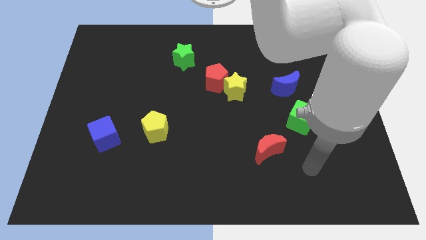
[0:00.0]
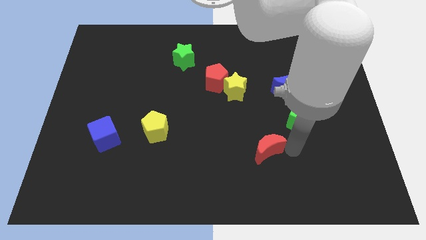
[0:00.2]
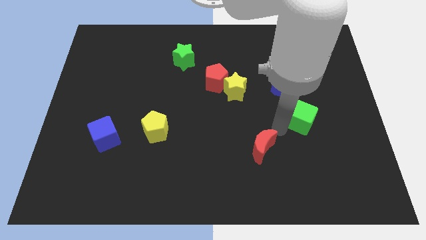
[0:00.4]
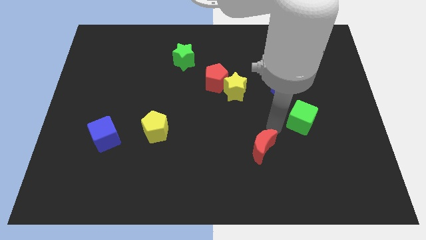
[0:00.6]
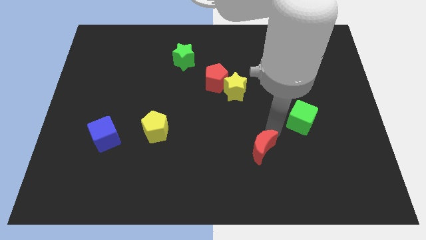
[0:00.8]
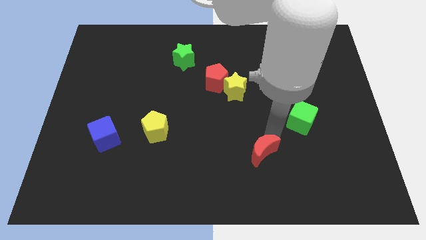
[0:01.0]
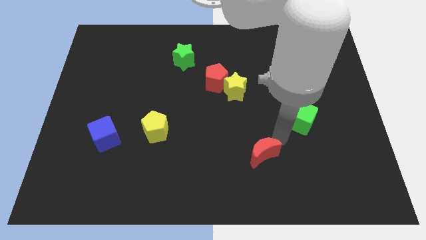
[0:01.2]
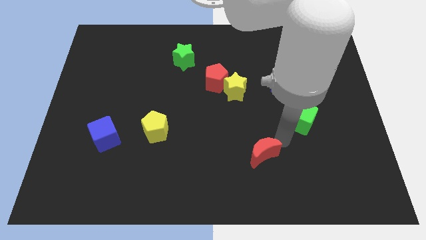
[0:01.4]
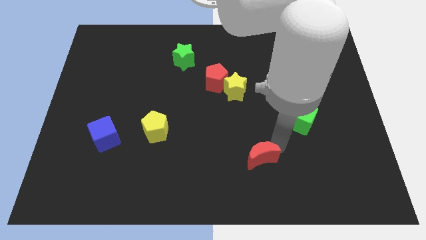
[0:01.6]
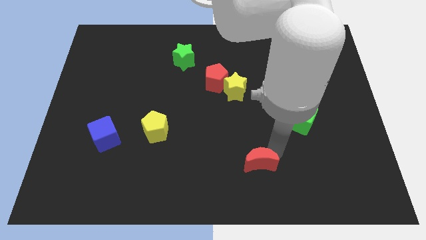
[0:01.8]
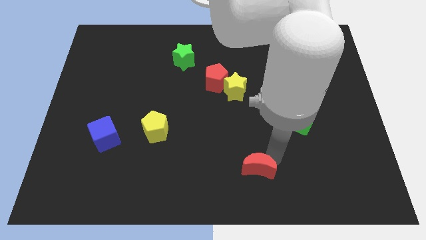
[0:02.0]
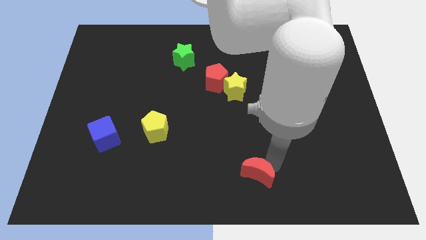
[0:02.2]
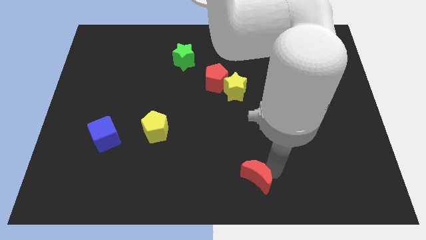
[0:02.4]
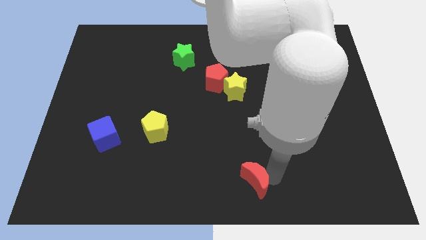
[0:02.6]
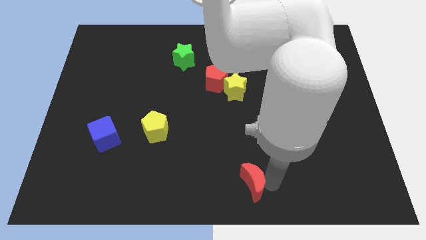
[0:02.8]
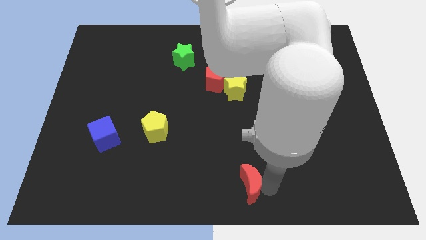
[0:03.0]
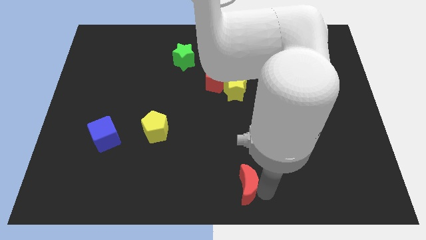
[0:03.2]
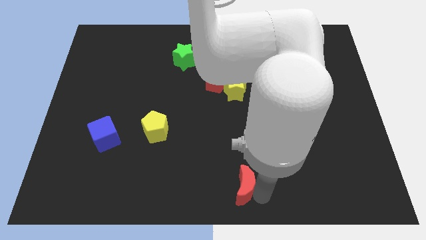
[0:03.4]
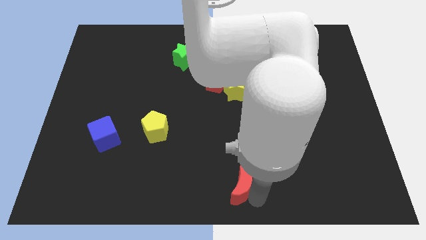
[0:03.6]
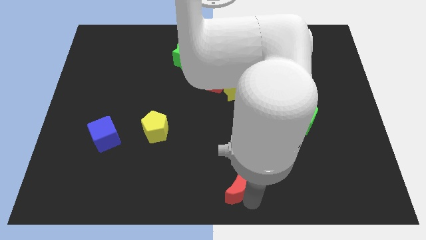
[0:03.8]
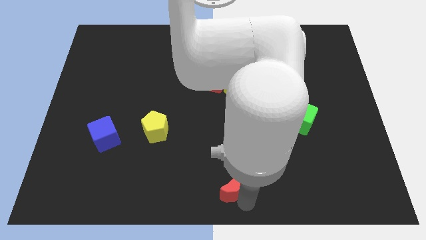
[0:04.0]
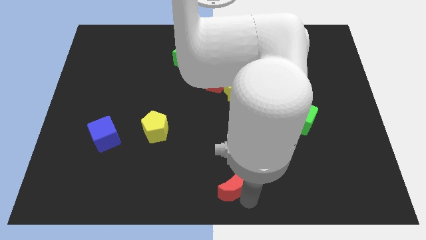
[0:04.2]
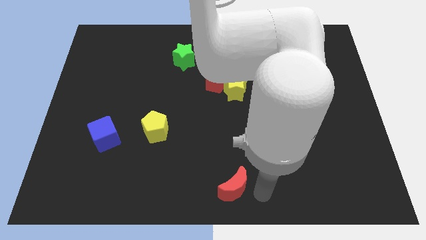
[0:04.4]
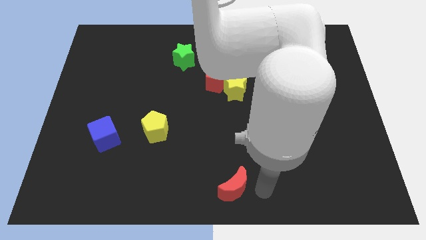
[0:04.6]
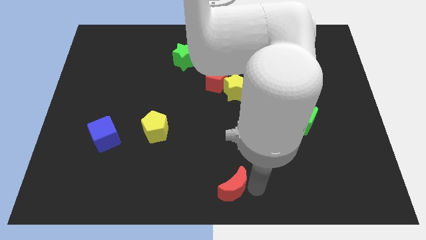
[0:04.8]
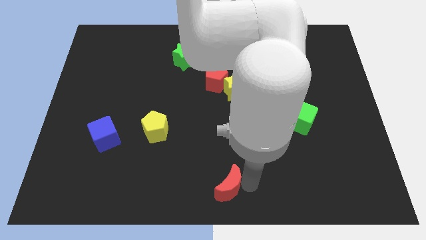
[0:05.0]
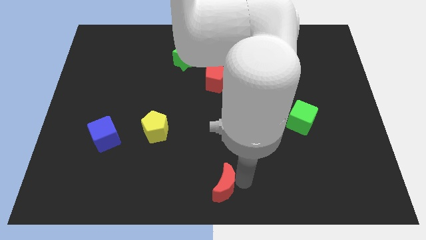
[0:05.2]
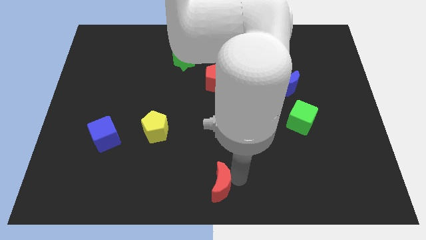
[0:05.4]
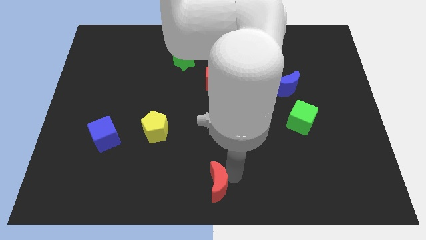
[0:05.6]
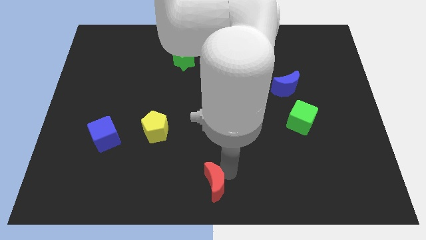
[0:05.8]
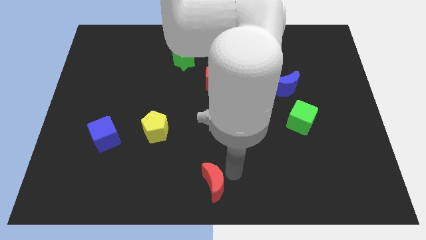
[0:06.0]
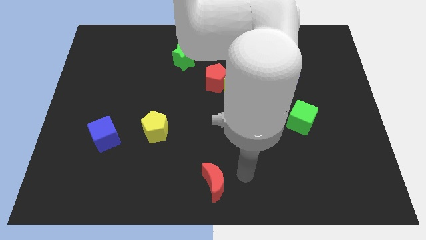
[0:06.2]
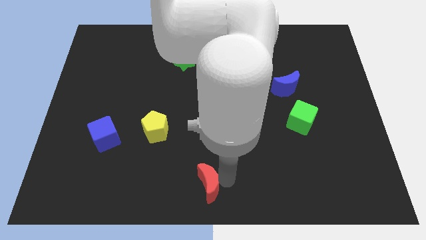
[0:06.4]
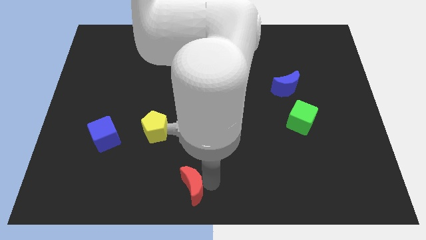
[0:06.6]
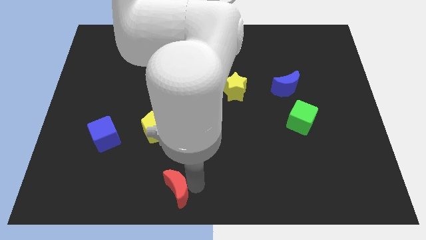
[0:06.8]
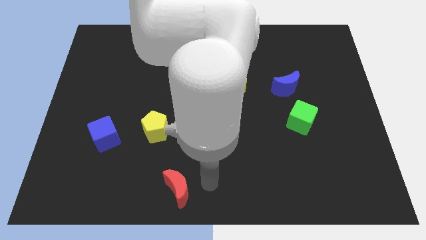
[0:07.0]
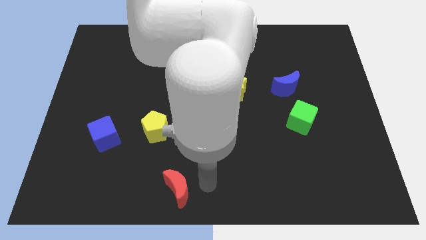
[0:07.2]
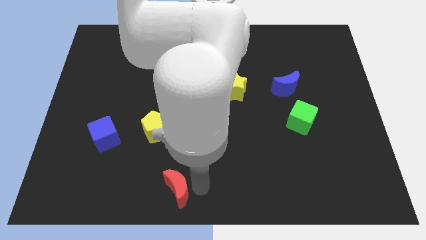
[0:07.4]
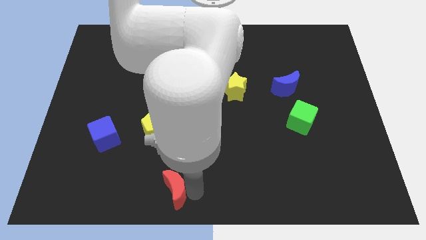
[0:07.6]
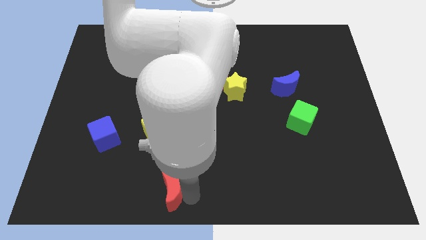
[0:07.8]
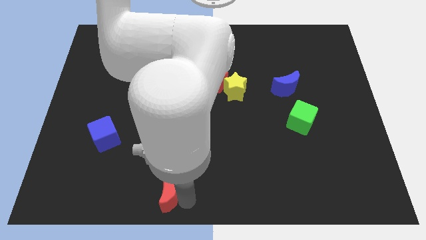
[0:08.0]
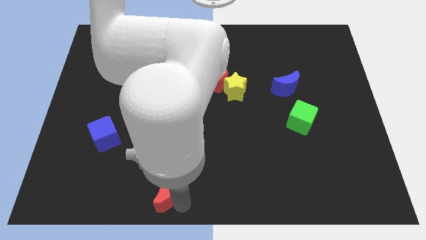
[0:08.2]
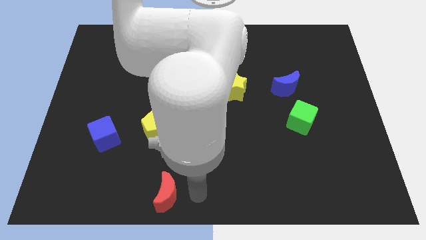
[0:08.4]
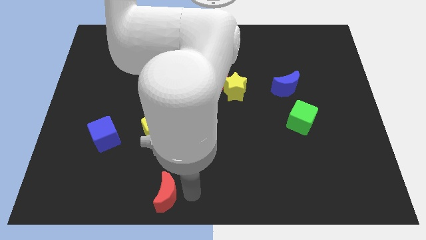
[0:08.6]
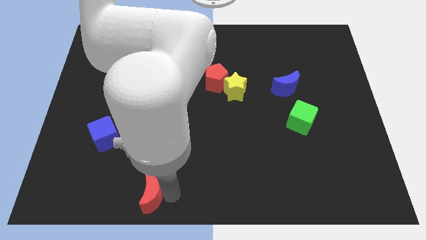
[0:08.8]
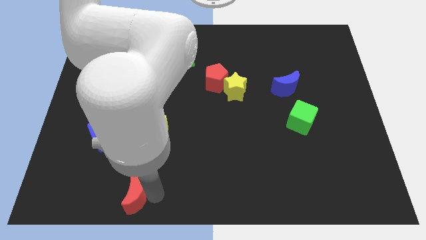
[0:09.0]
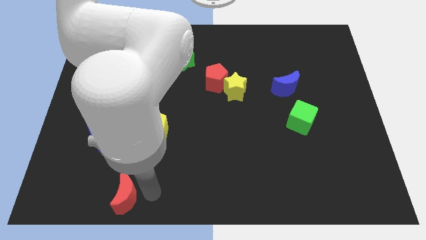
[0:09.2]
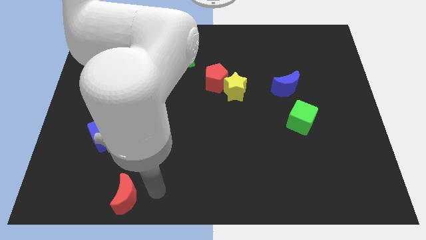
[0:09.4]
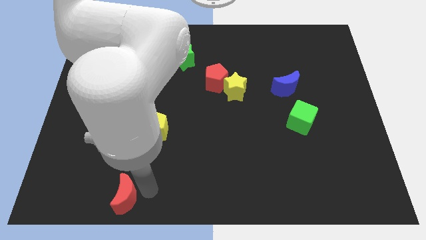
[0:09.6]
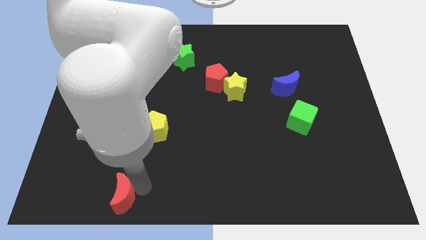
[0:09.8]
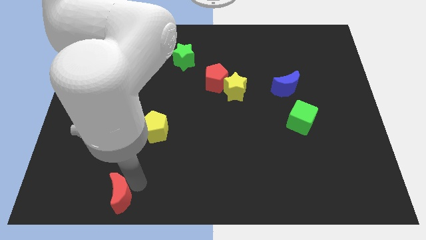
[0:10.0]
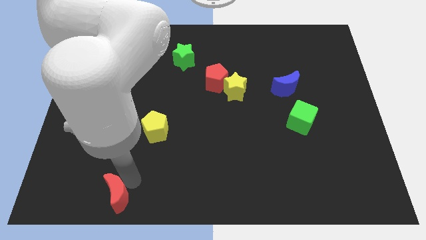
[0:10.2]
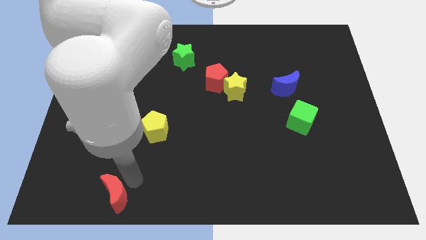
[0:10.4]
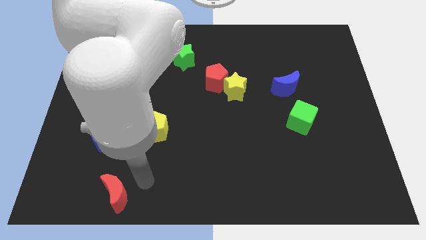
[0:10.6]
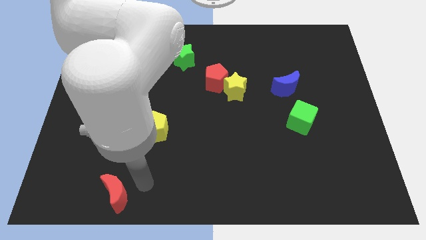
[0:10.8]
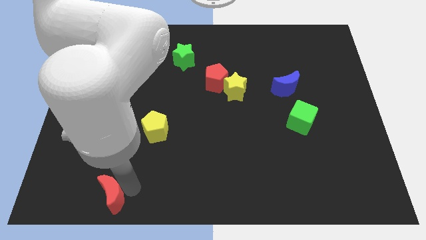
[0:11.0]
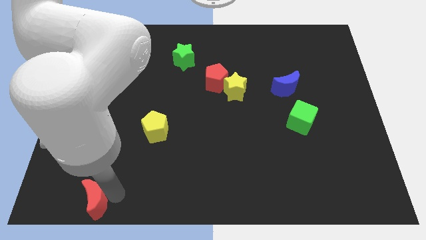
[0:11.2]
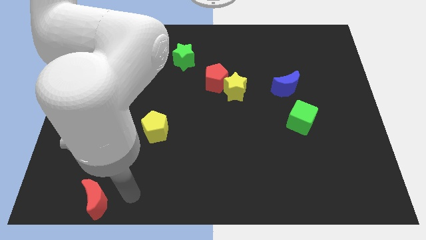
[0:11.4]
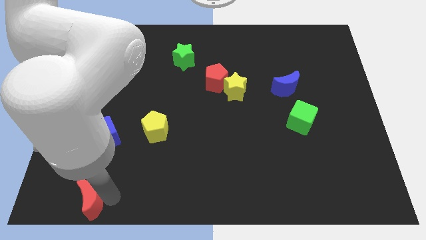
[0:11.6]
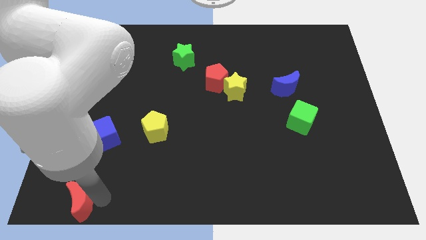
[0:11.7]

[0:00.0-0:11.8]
put the red moon to the bottom left of the board
